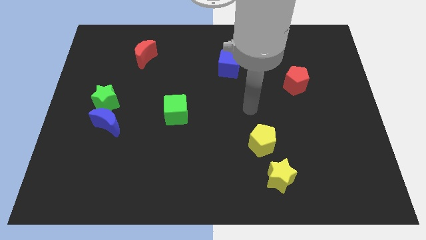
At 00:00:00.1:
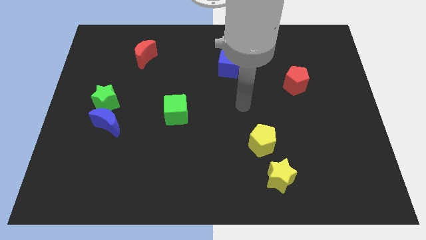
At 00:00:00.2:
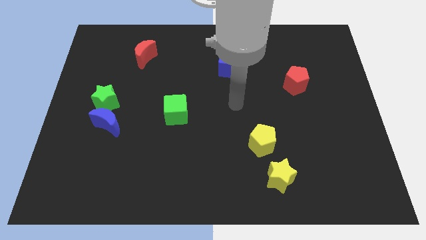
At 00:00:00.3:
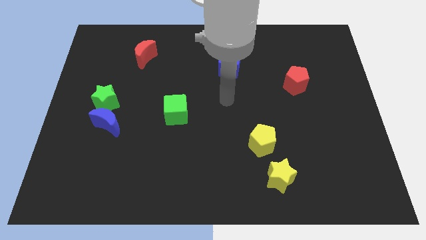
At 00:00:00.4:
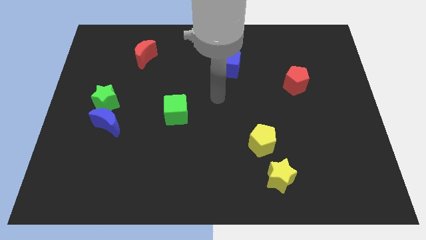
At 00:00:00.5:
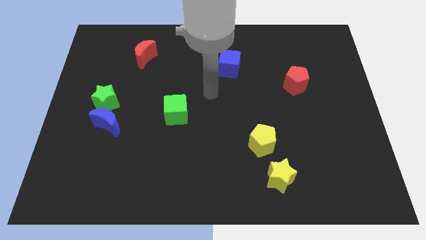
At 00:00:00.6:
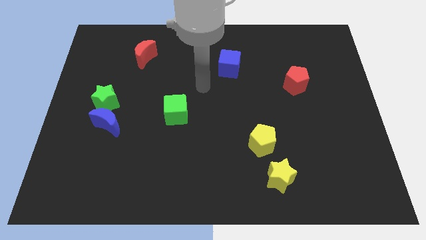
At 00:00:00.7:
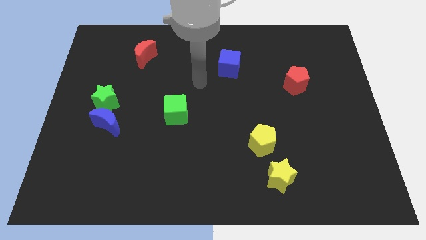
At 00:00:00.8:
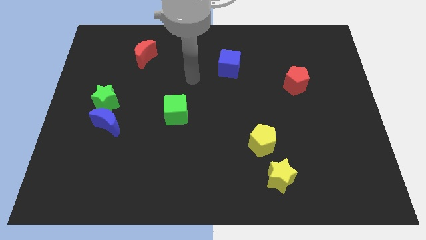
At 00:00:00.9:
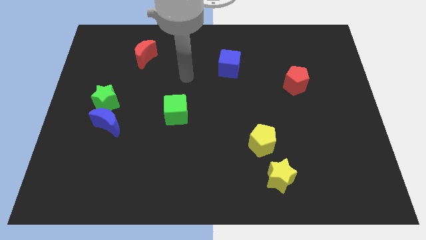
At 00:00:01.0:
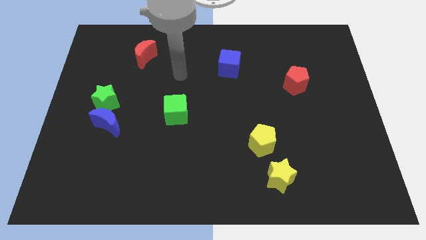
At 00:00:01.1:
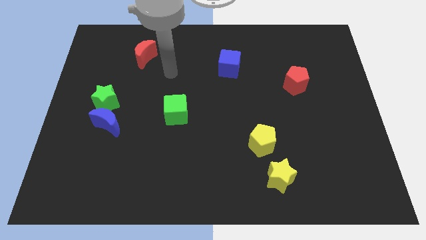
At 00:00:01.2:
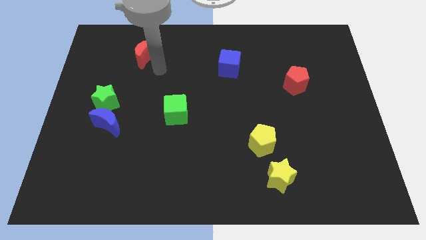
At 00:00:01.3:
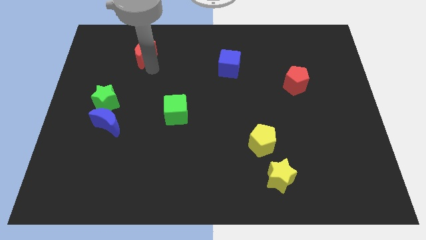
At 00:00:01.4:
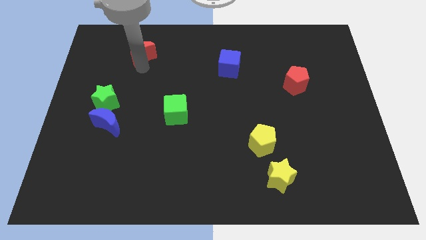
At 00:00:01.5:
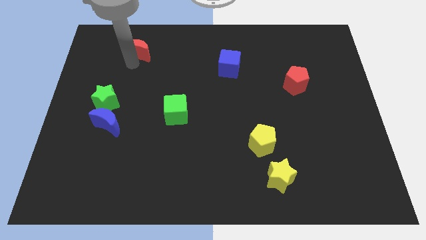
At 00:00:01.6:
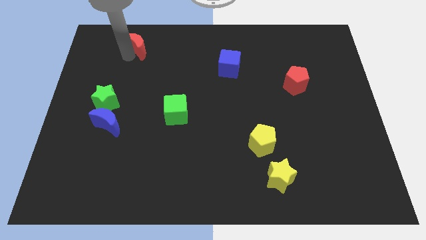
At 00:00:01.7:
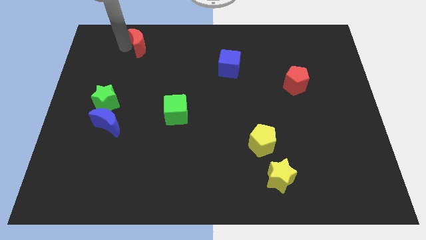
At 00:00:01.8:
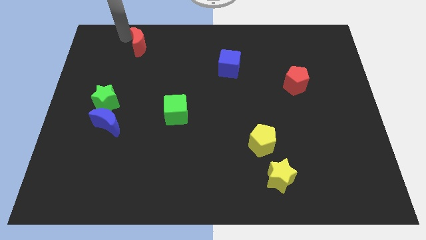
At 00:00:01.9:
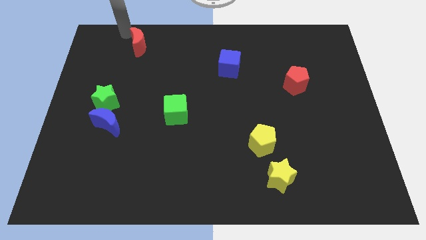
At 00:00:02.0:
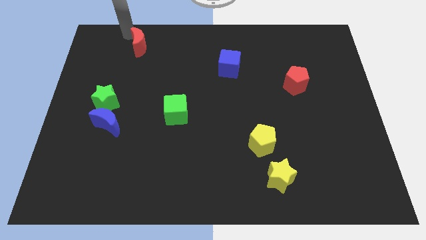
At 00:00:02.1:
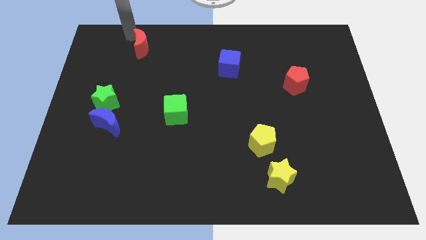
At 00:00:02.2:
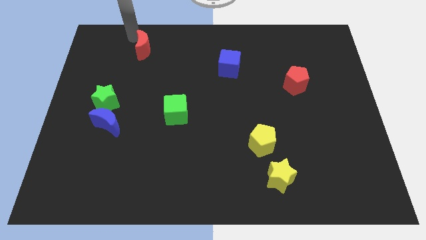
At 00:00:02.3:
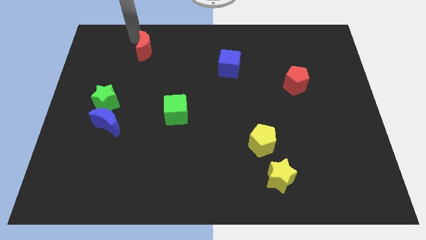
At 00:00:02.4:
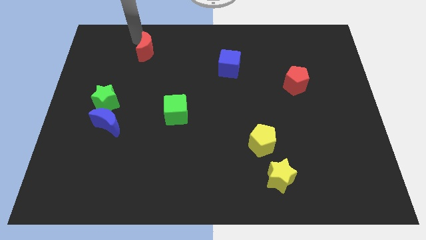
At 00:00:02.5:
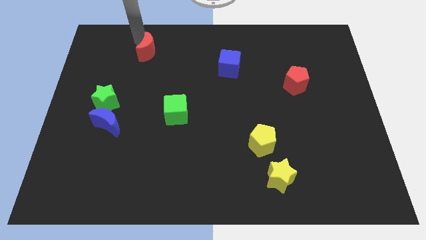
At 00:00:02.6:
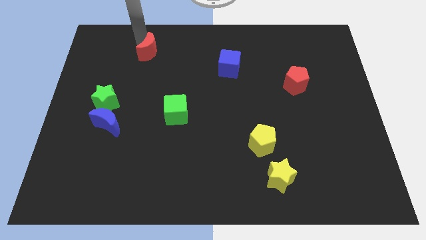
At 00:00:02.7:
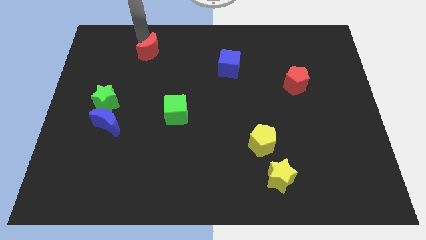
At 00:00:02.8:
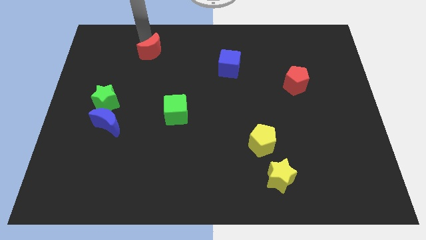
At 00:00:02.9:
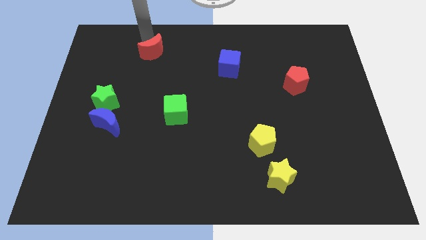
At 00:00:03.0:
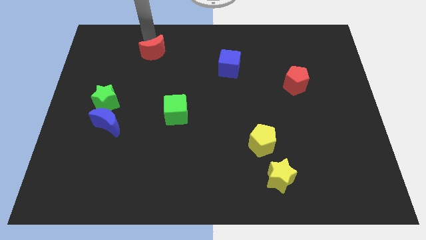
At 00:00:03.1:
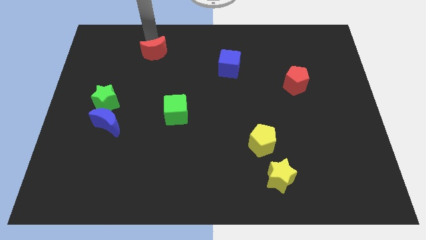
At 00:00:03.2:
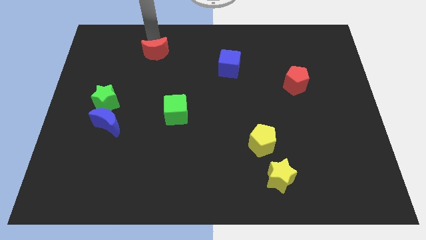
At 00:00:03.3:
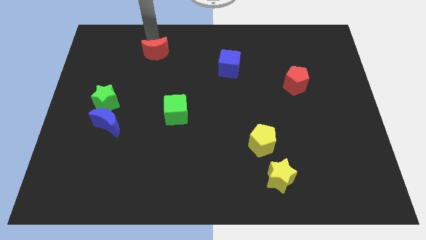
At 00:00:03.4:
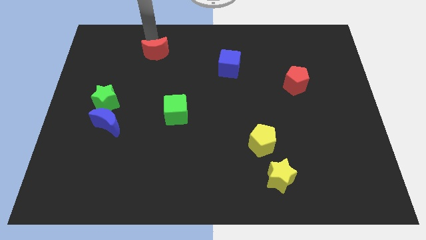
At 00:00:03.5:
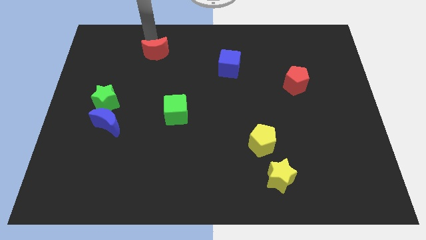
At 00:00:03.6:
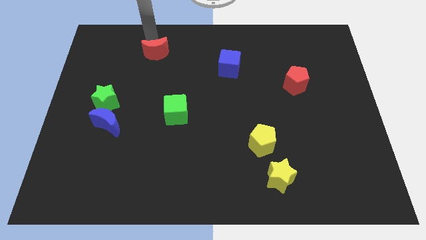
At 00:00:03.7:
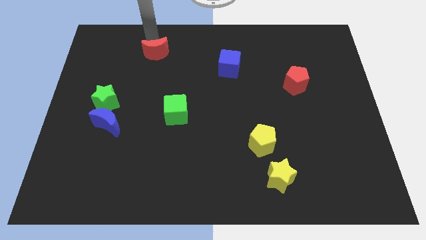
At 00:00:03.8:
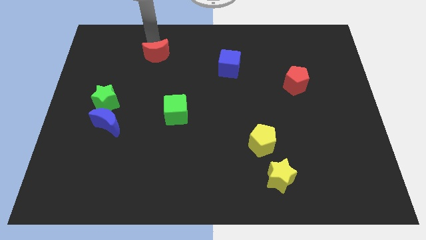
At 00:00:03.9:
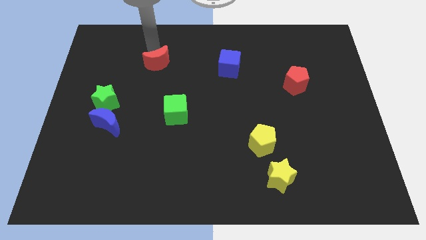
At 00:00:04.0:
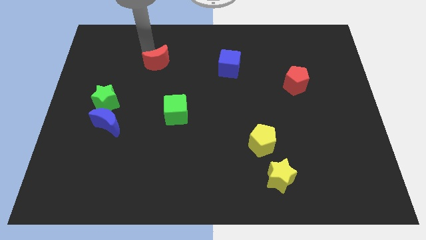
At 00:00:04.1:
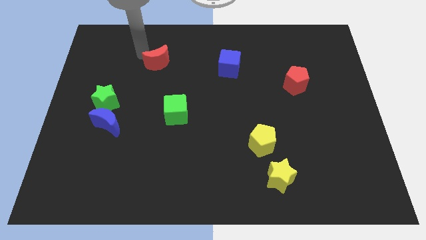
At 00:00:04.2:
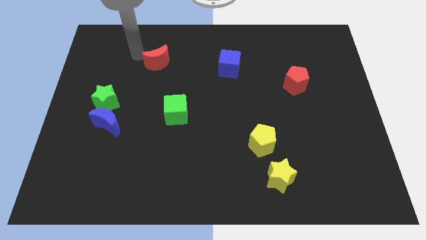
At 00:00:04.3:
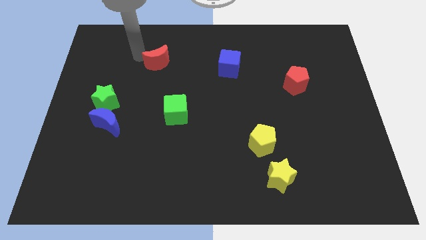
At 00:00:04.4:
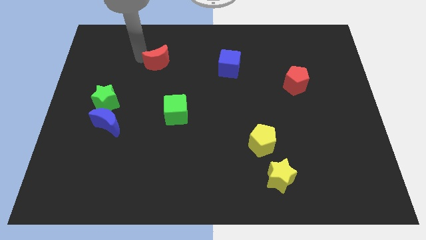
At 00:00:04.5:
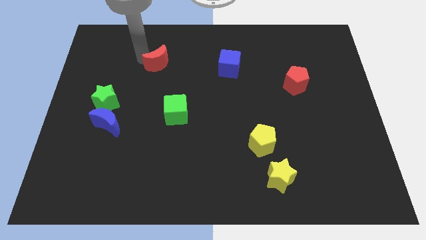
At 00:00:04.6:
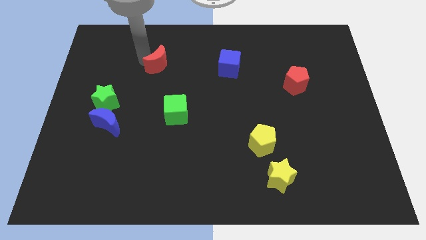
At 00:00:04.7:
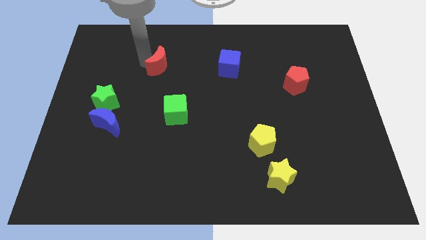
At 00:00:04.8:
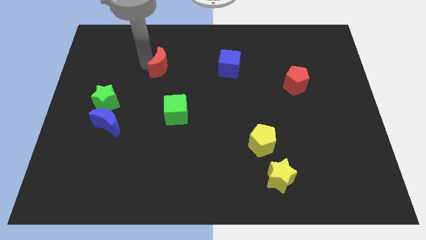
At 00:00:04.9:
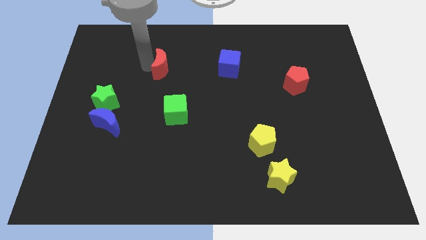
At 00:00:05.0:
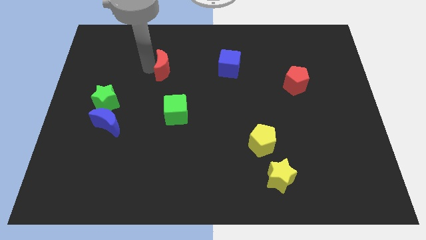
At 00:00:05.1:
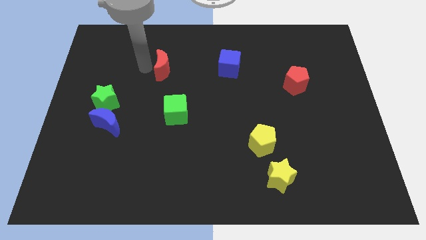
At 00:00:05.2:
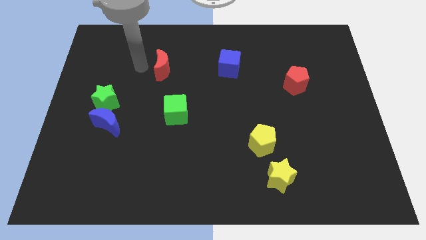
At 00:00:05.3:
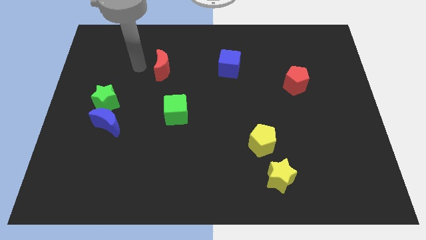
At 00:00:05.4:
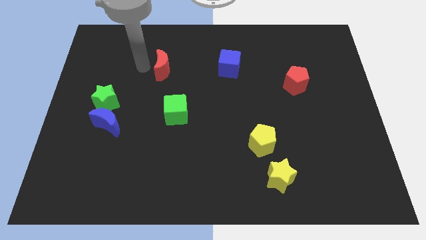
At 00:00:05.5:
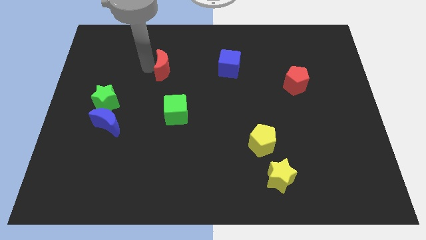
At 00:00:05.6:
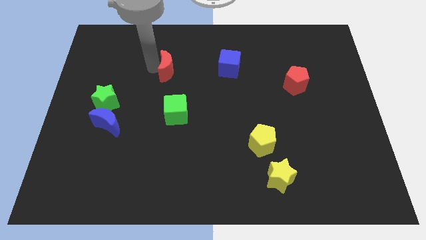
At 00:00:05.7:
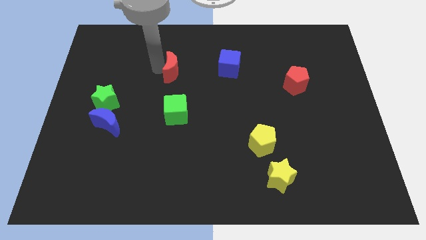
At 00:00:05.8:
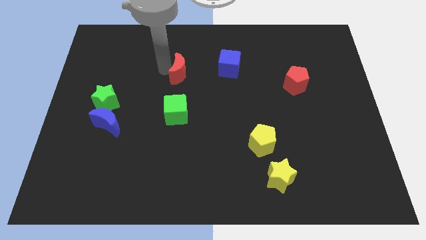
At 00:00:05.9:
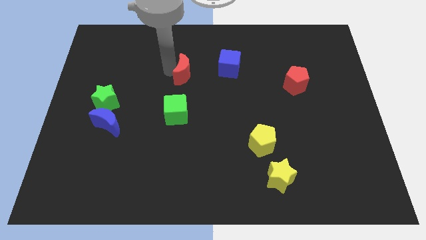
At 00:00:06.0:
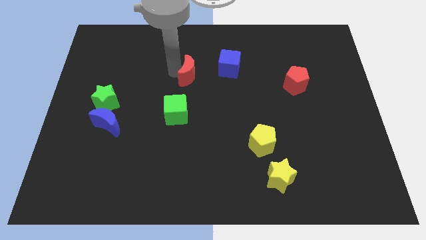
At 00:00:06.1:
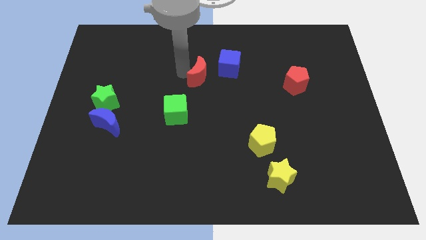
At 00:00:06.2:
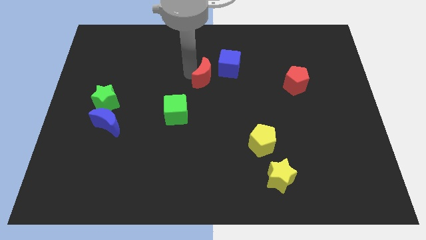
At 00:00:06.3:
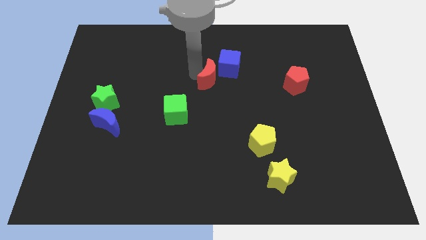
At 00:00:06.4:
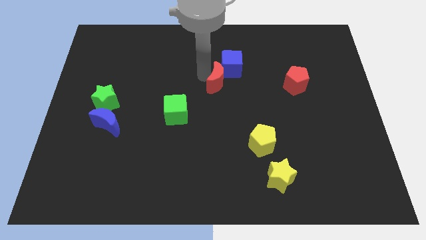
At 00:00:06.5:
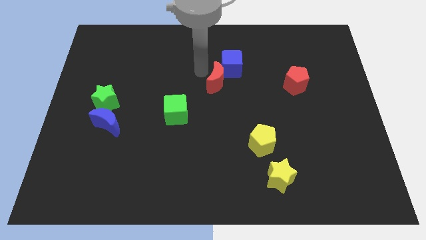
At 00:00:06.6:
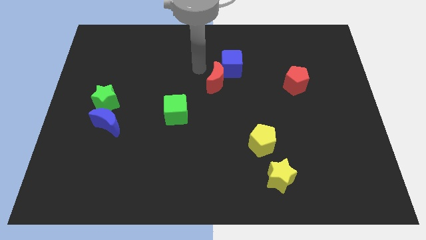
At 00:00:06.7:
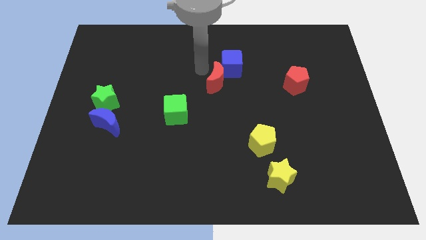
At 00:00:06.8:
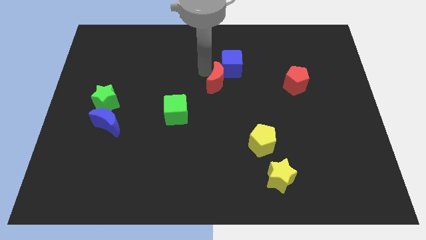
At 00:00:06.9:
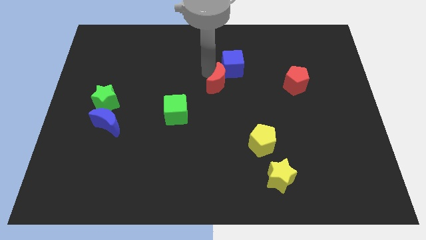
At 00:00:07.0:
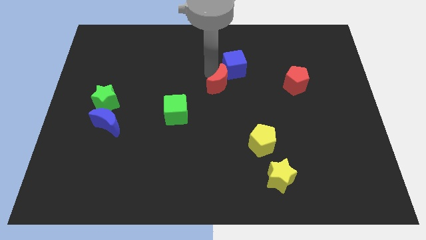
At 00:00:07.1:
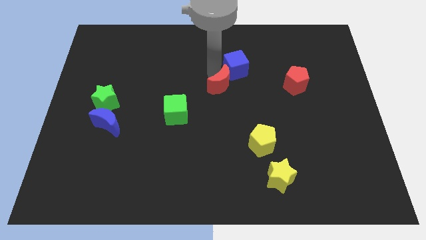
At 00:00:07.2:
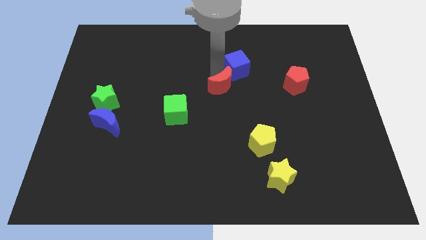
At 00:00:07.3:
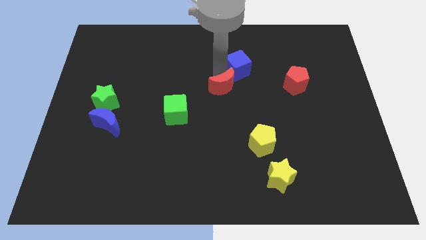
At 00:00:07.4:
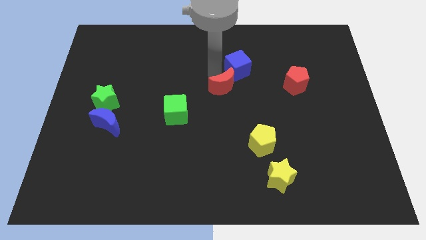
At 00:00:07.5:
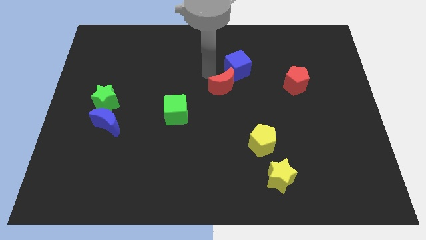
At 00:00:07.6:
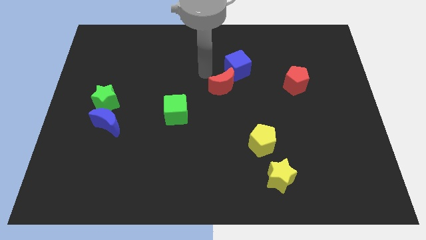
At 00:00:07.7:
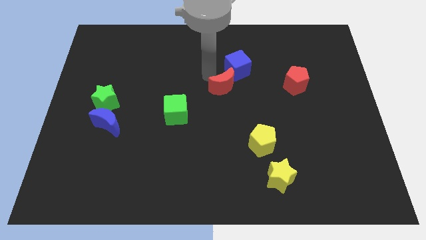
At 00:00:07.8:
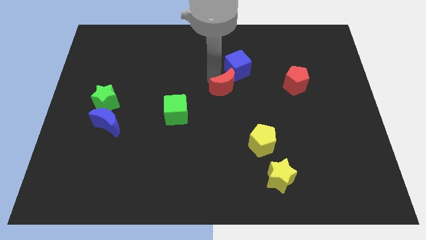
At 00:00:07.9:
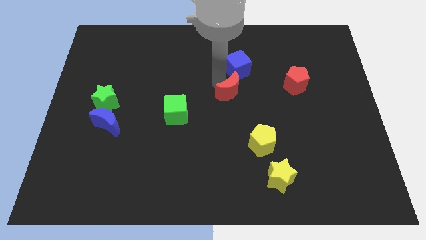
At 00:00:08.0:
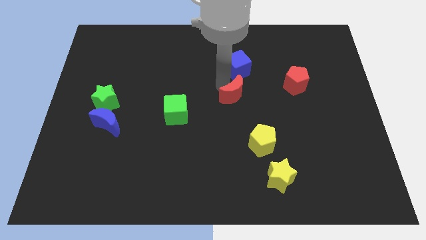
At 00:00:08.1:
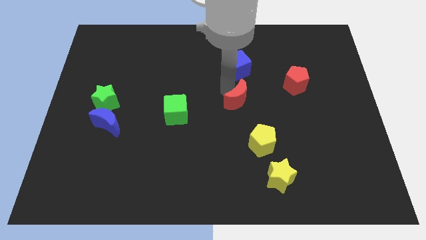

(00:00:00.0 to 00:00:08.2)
push the red moon to the top side of the yellow pentagon
